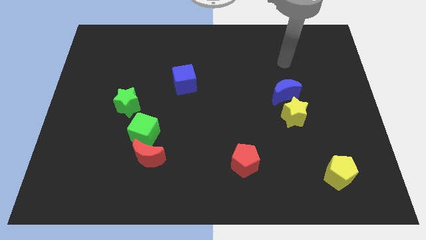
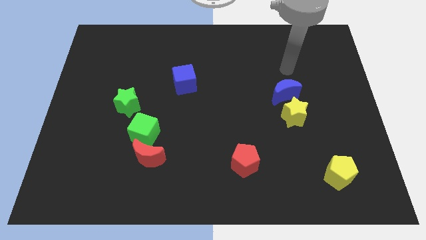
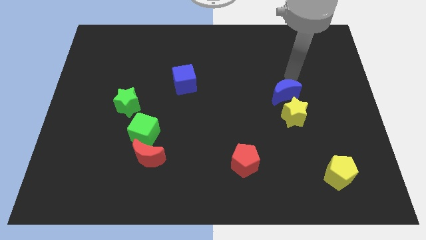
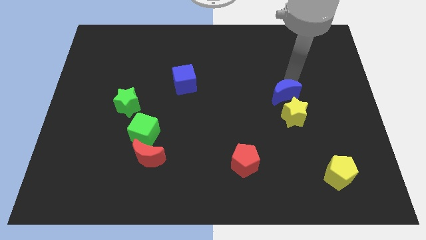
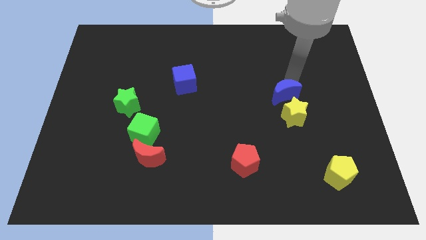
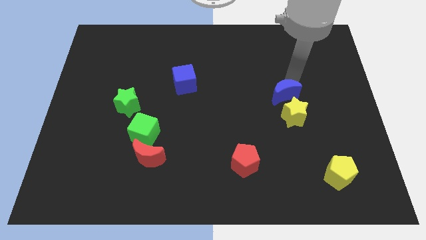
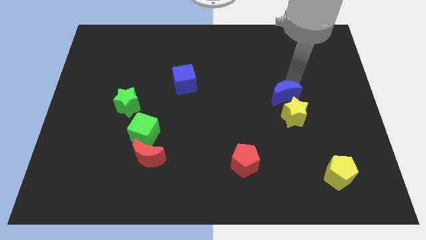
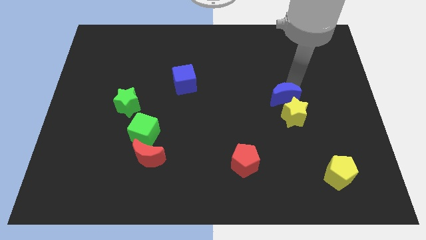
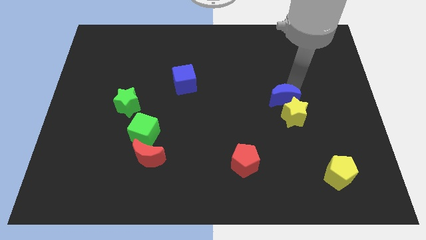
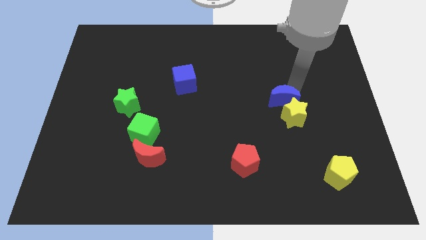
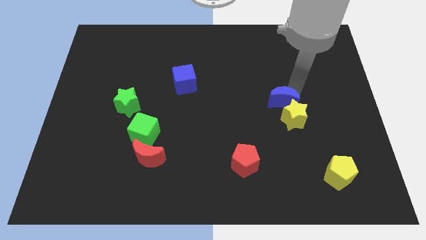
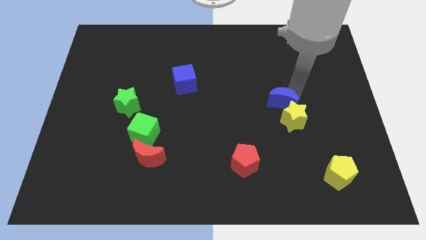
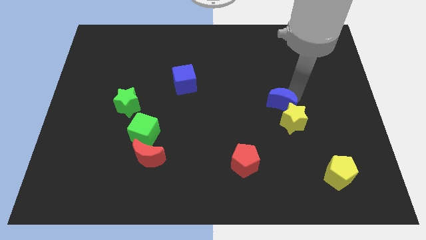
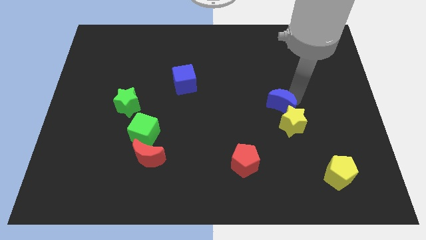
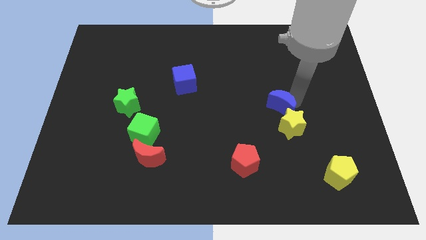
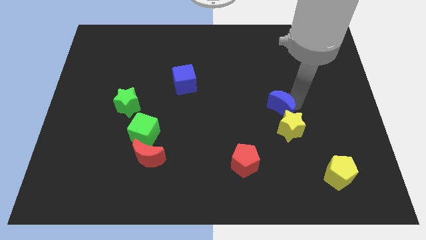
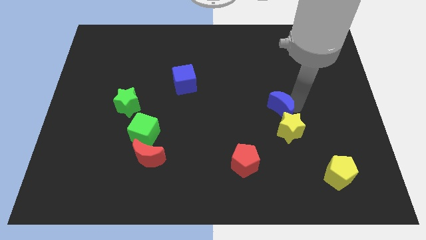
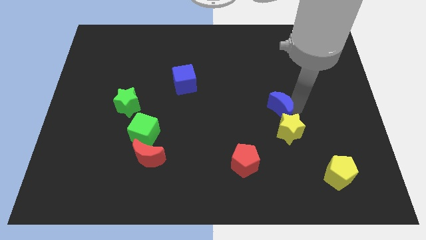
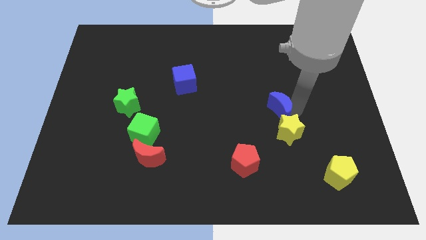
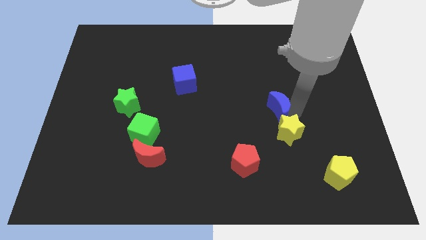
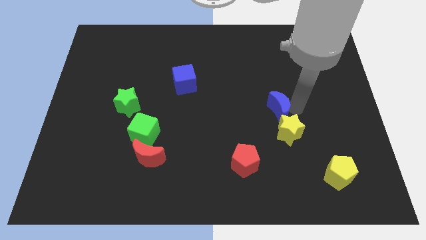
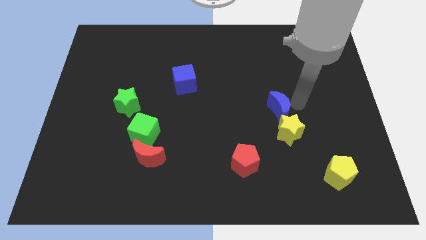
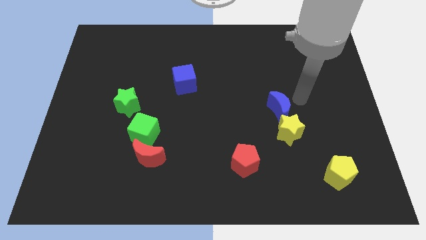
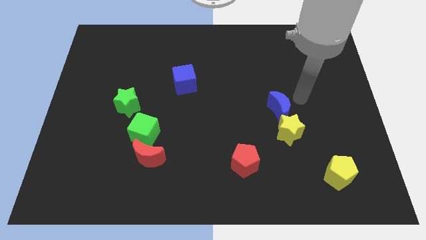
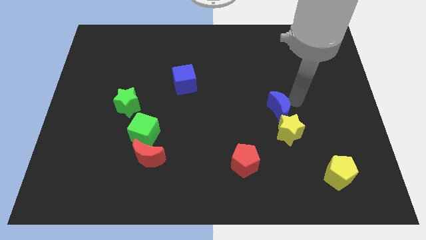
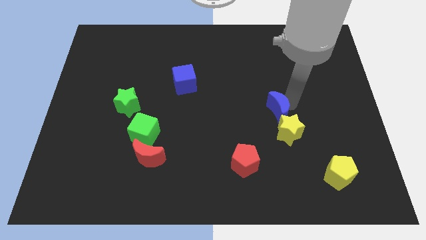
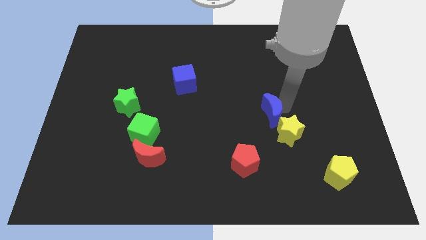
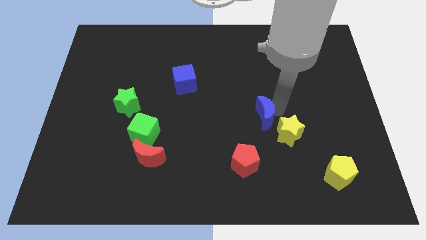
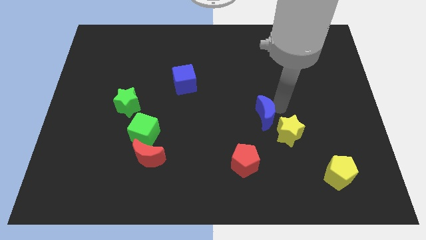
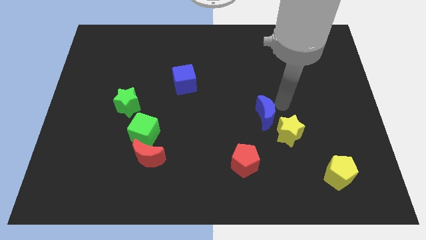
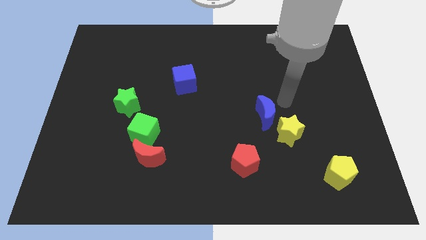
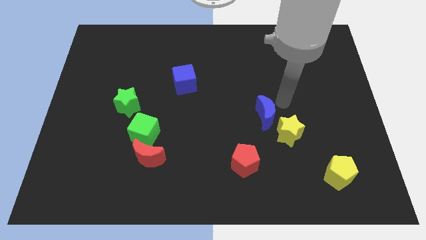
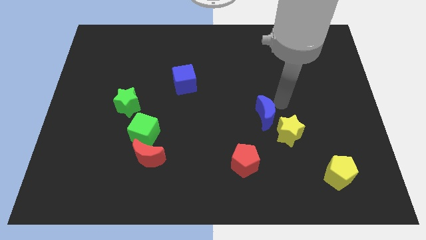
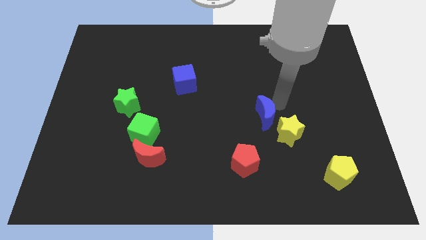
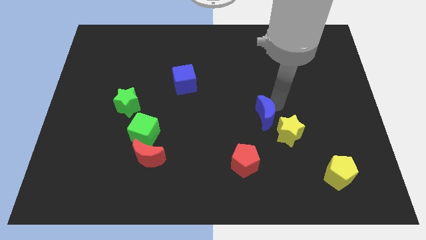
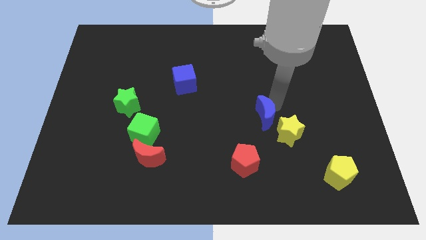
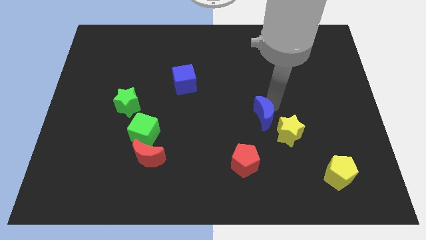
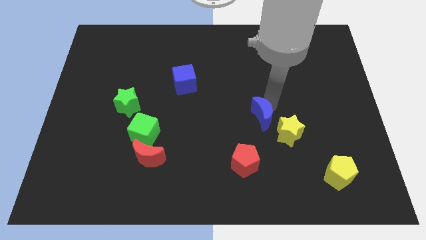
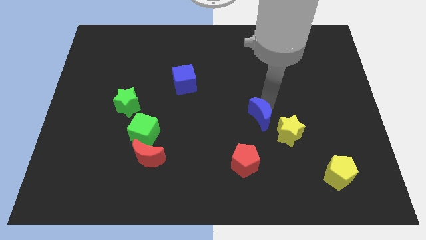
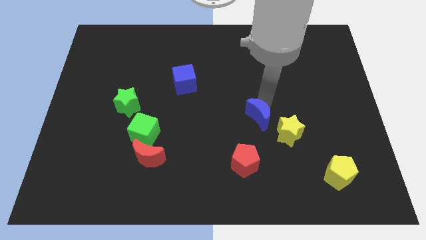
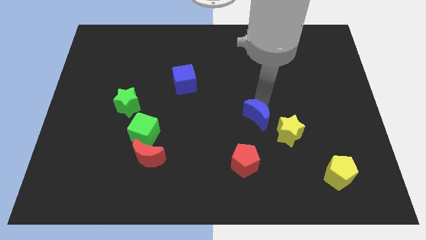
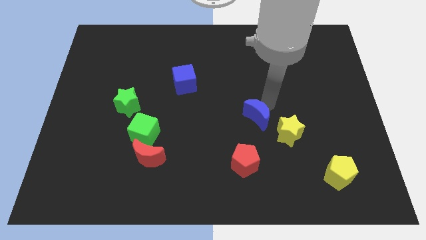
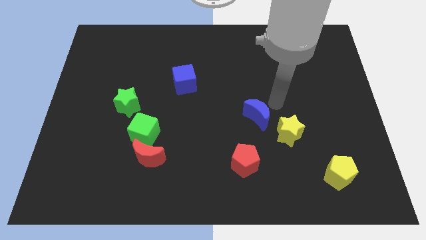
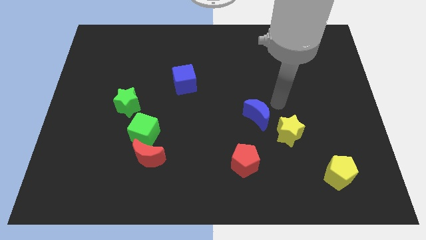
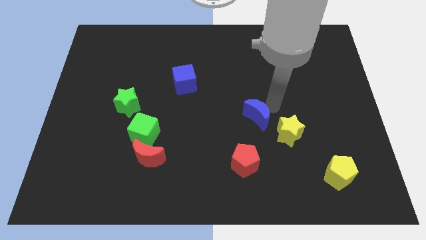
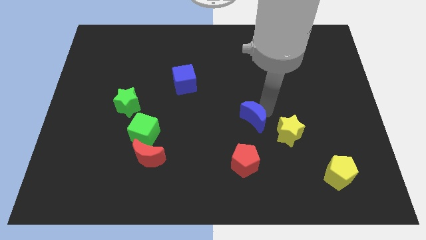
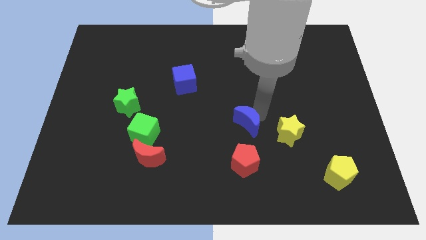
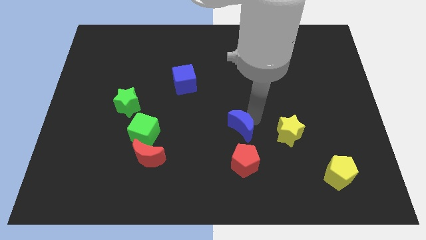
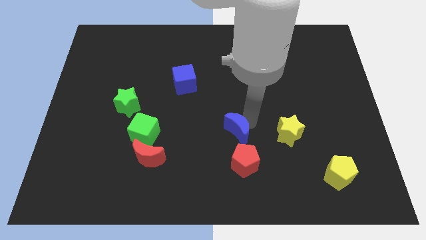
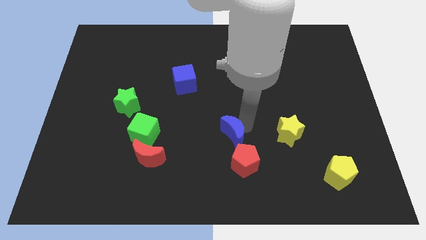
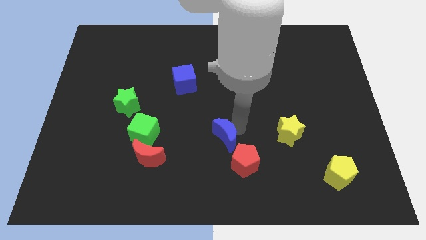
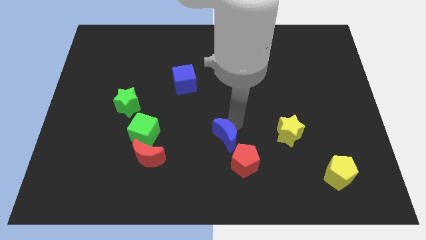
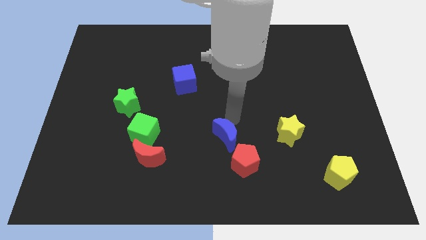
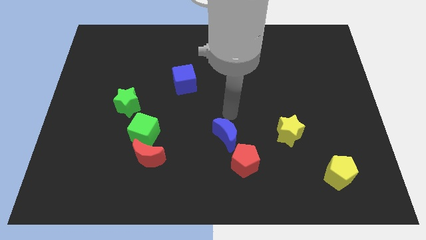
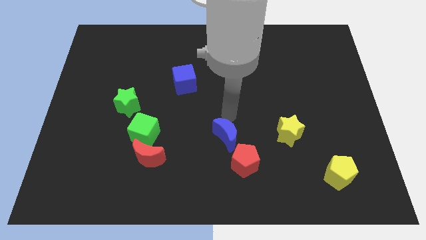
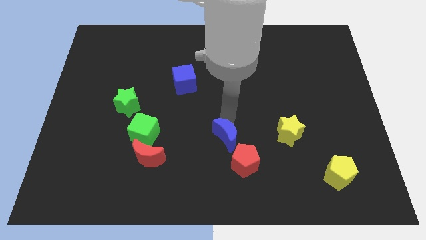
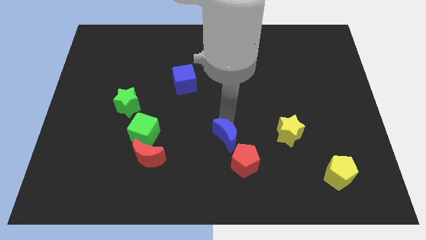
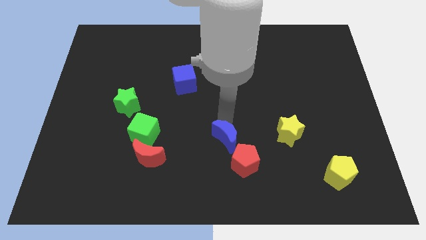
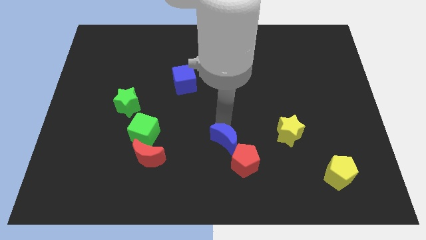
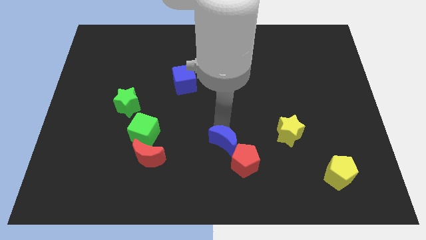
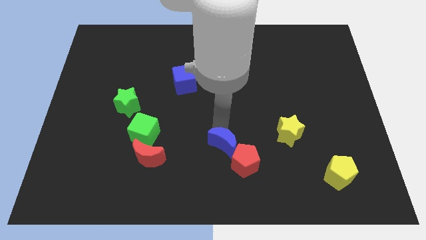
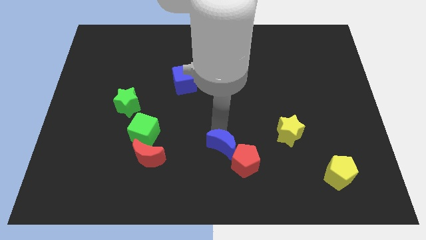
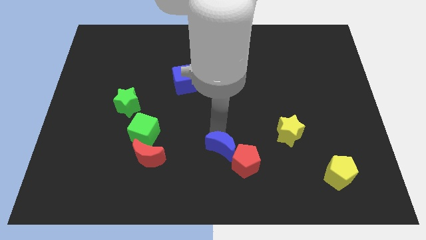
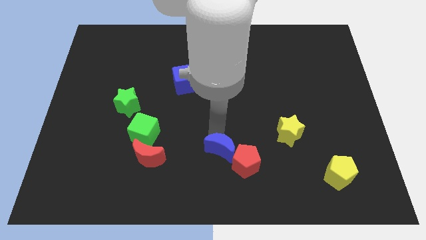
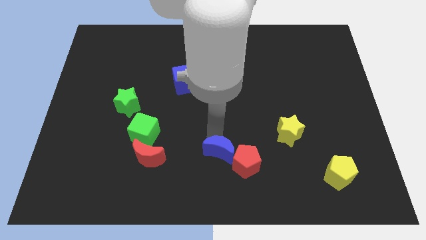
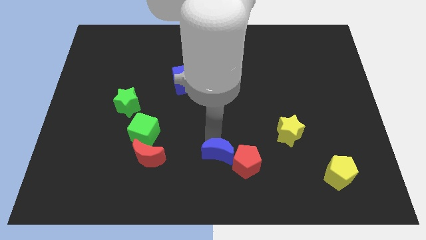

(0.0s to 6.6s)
put the blue moon to the bottom side
